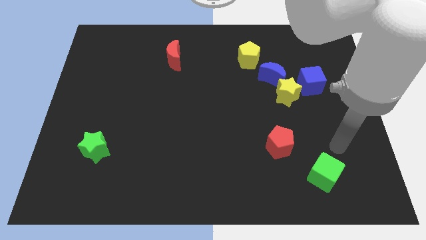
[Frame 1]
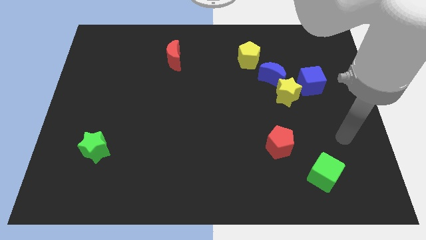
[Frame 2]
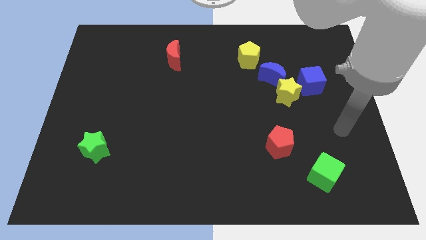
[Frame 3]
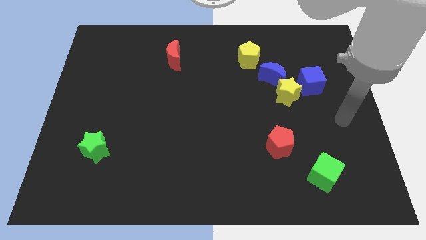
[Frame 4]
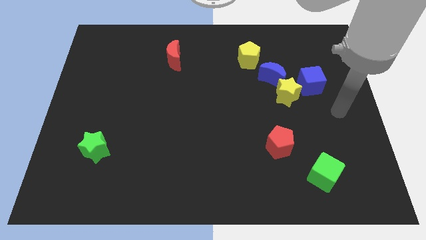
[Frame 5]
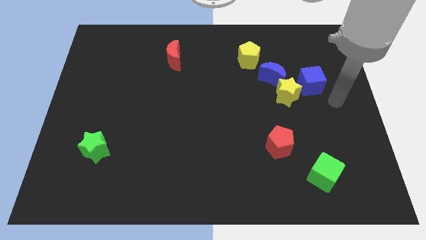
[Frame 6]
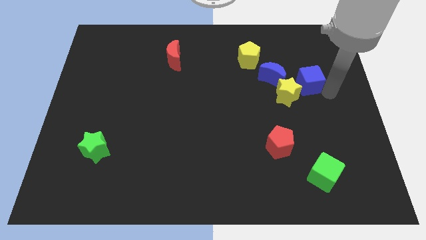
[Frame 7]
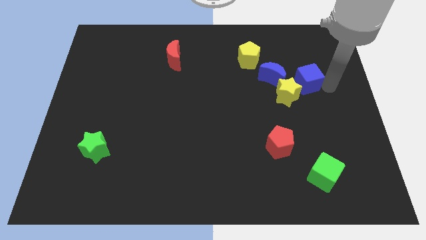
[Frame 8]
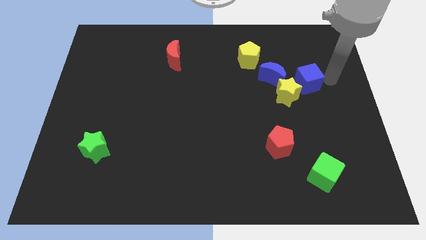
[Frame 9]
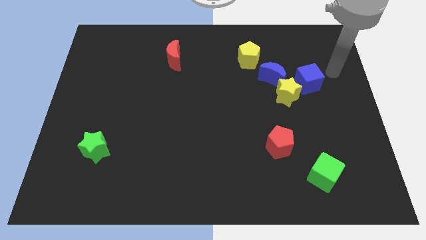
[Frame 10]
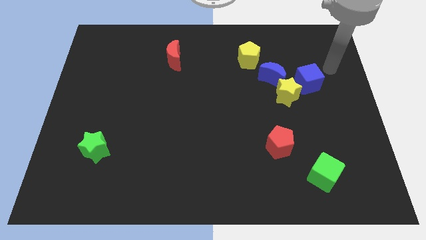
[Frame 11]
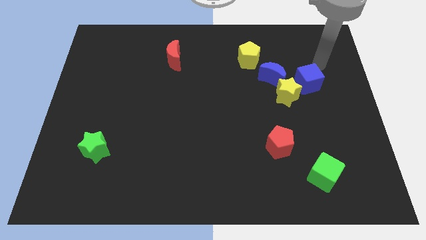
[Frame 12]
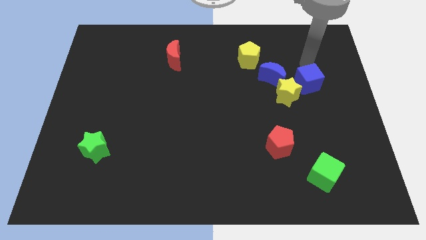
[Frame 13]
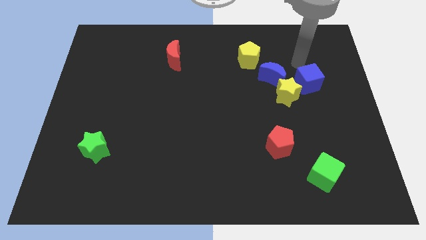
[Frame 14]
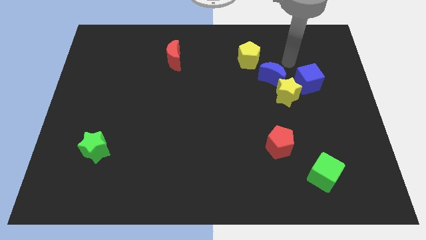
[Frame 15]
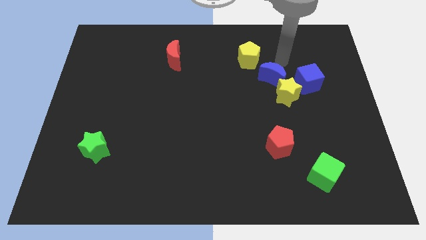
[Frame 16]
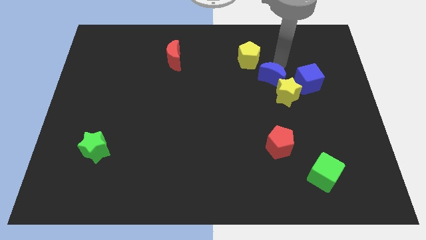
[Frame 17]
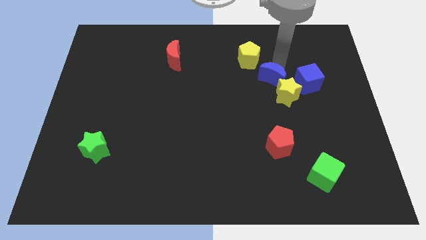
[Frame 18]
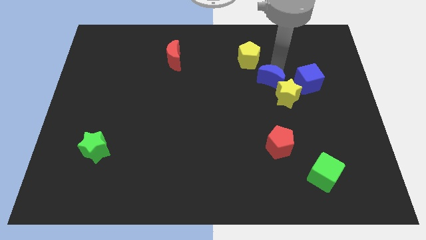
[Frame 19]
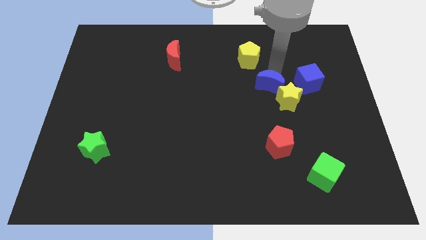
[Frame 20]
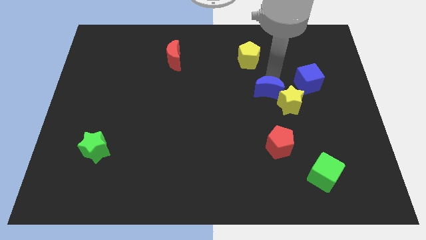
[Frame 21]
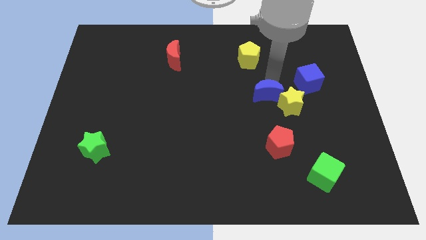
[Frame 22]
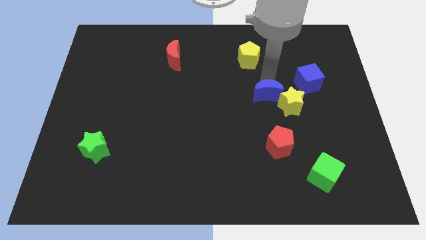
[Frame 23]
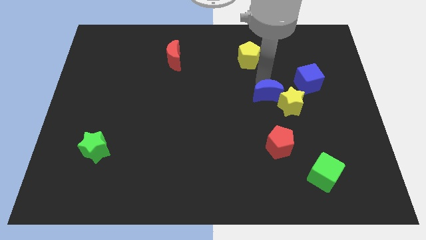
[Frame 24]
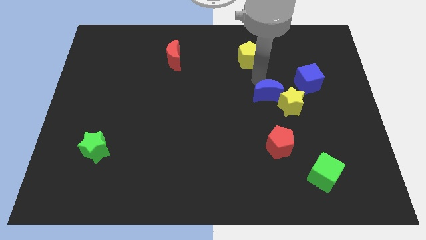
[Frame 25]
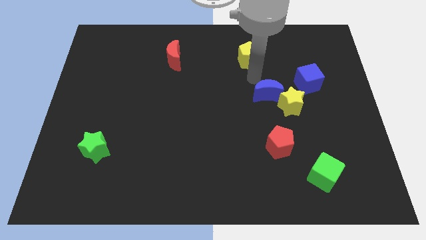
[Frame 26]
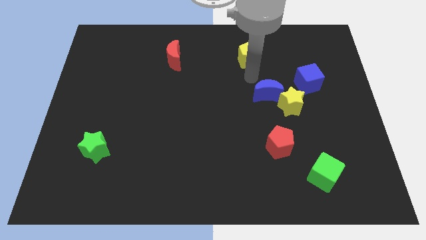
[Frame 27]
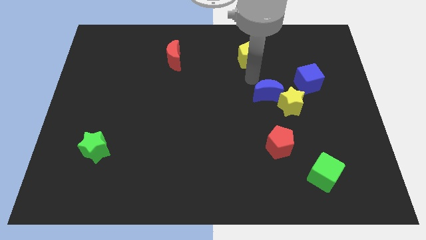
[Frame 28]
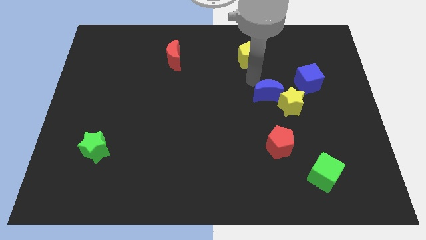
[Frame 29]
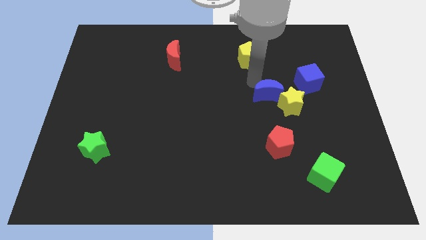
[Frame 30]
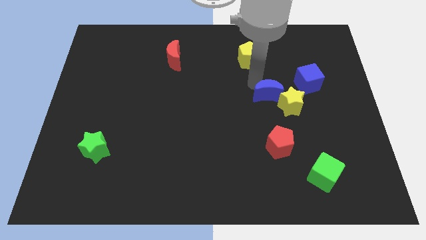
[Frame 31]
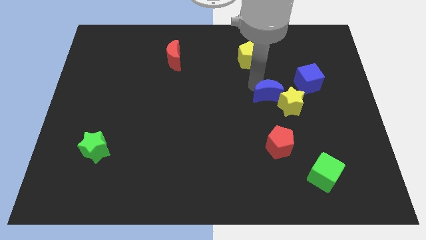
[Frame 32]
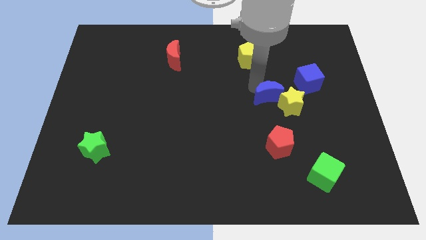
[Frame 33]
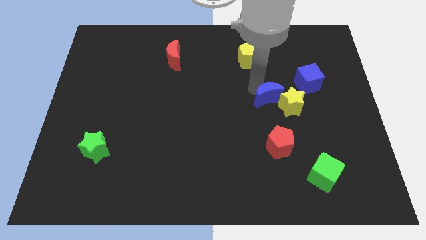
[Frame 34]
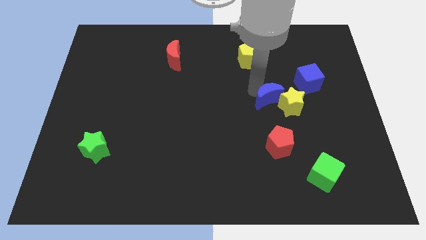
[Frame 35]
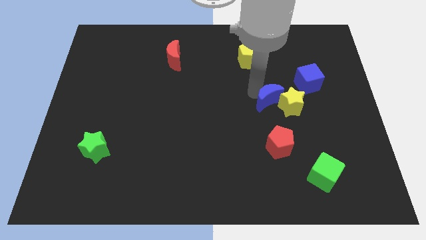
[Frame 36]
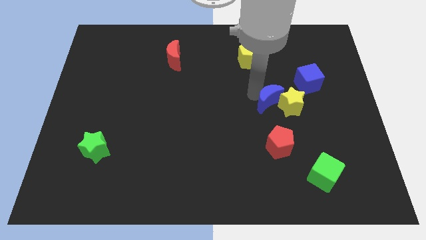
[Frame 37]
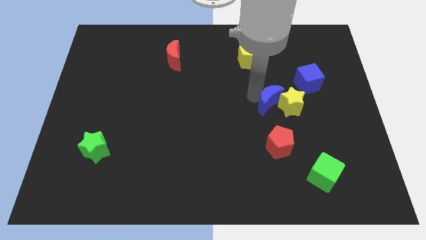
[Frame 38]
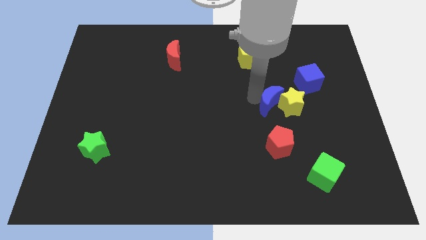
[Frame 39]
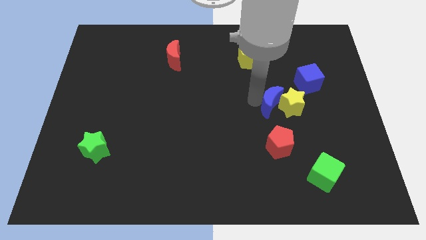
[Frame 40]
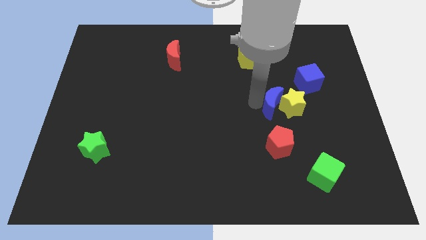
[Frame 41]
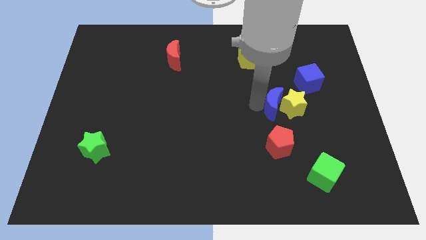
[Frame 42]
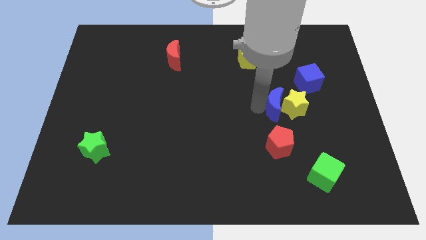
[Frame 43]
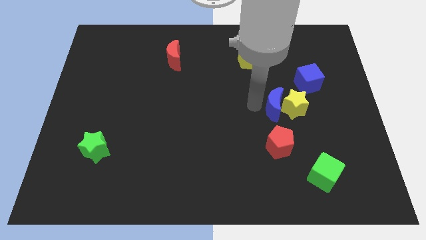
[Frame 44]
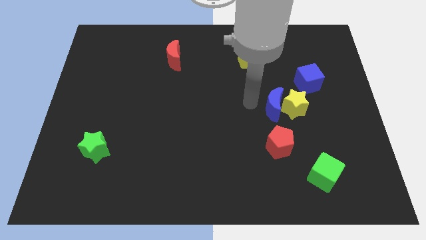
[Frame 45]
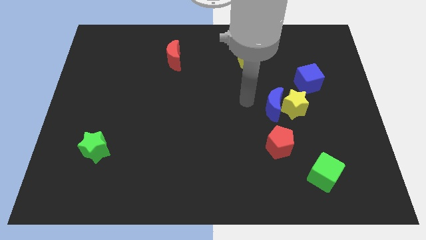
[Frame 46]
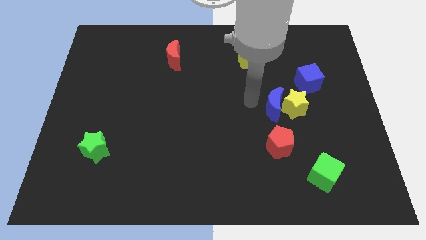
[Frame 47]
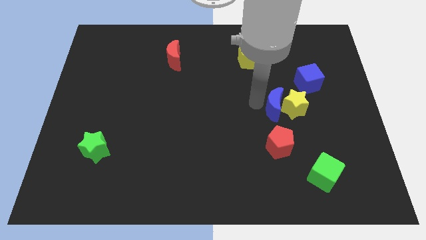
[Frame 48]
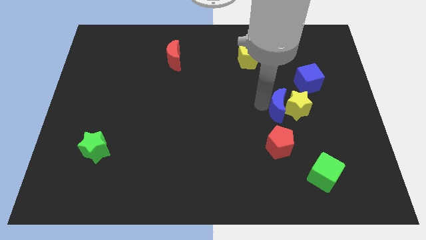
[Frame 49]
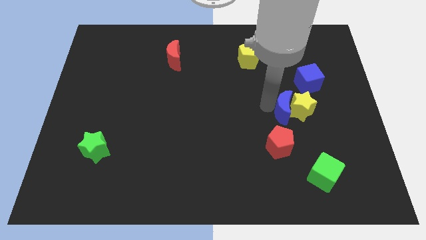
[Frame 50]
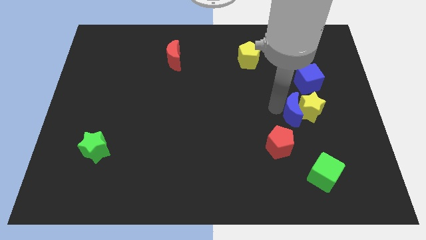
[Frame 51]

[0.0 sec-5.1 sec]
move the blue moon down and to the right a little bit

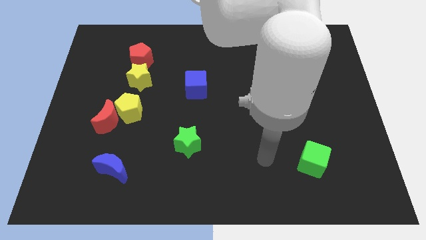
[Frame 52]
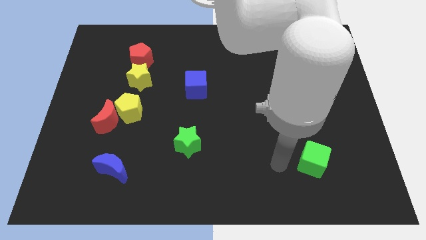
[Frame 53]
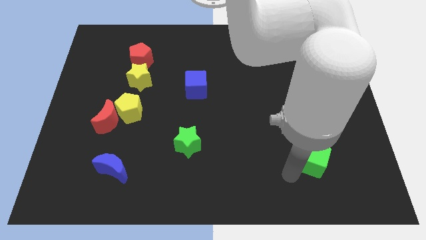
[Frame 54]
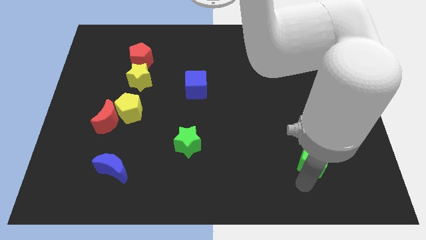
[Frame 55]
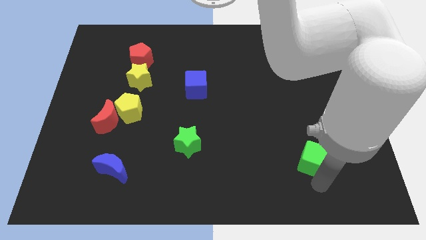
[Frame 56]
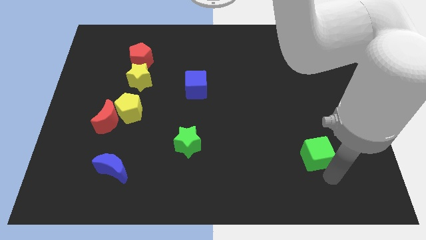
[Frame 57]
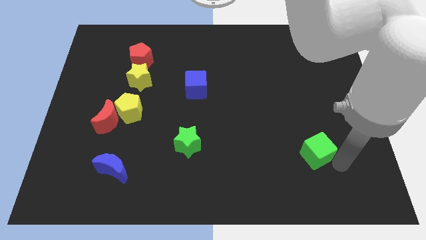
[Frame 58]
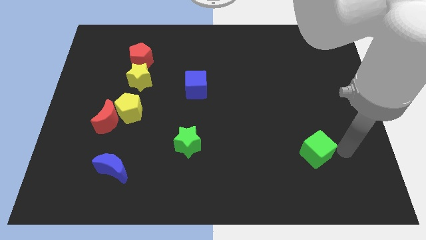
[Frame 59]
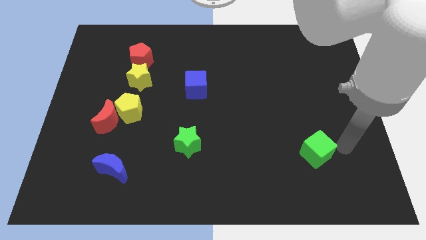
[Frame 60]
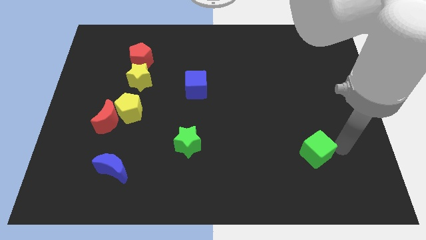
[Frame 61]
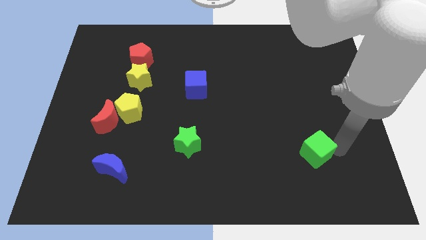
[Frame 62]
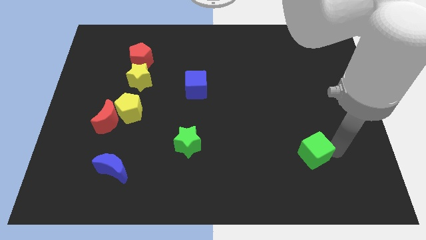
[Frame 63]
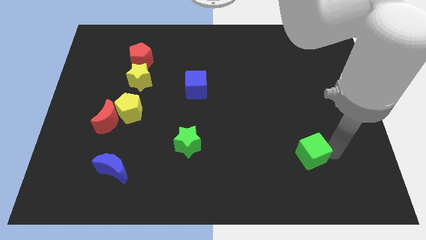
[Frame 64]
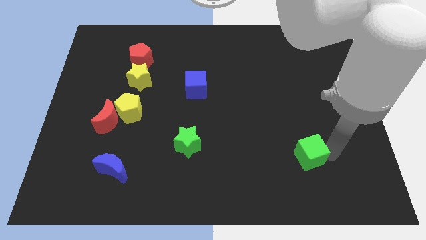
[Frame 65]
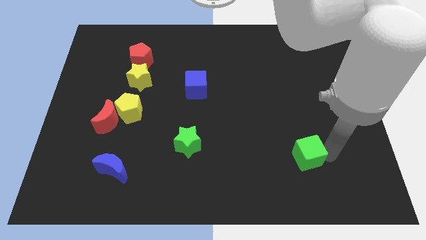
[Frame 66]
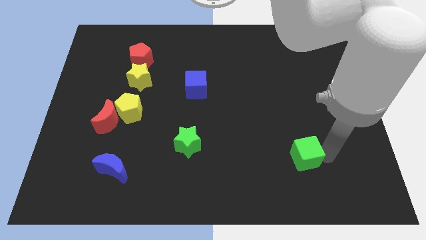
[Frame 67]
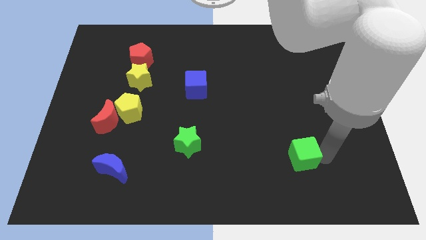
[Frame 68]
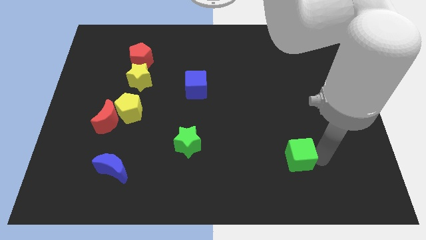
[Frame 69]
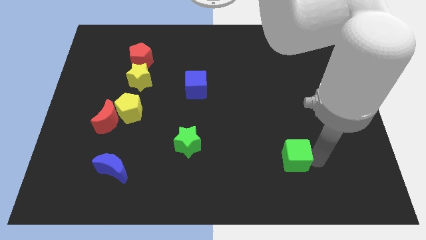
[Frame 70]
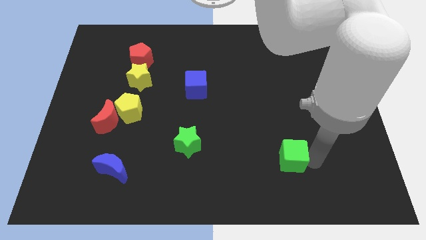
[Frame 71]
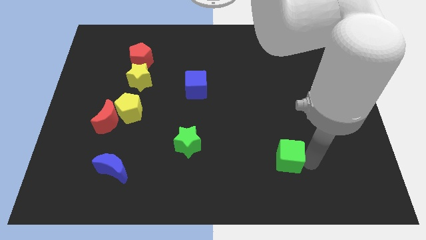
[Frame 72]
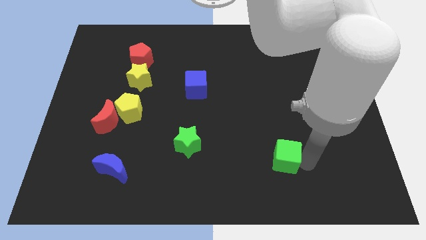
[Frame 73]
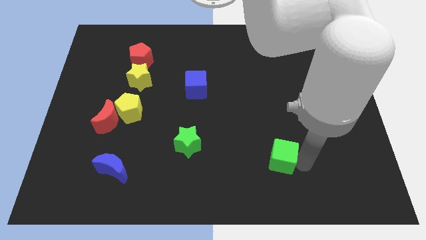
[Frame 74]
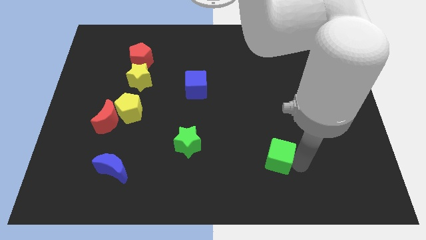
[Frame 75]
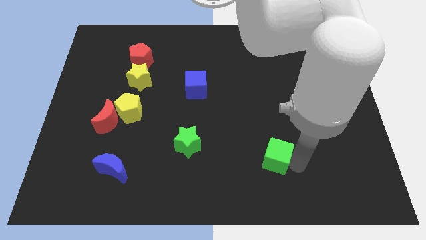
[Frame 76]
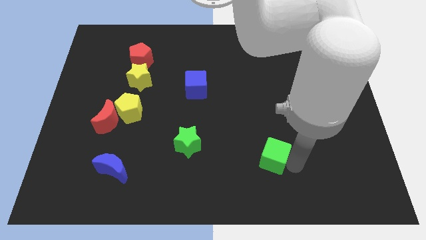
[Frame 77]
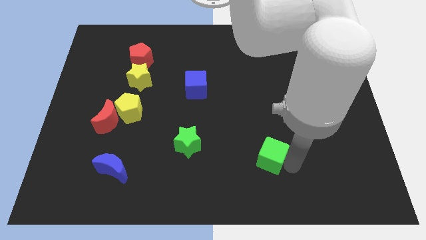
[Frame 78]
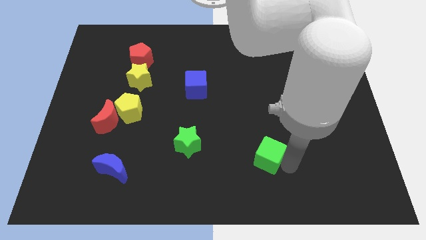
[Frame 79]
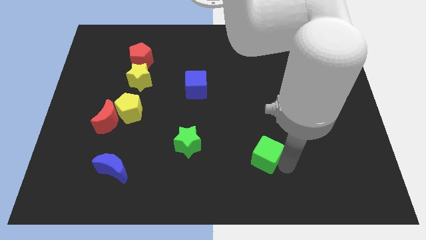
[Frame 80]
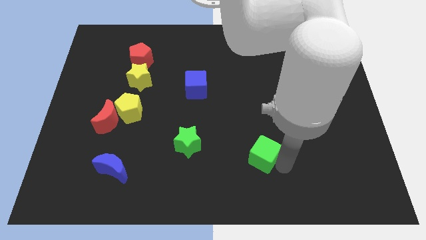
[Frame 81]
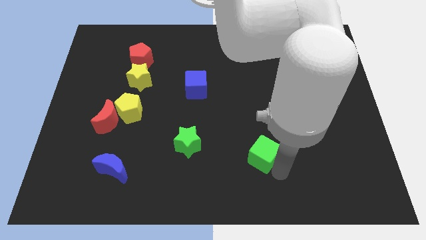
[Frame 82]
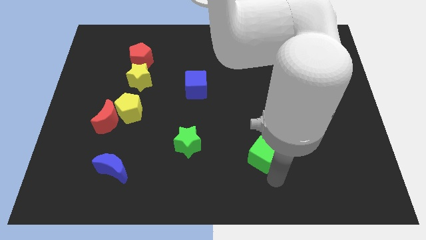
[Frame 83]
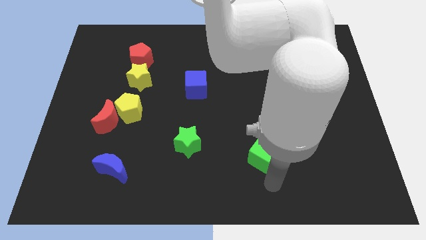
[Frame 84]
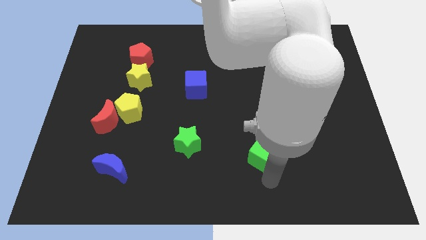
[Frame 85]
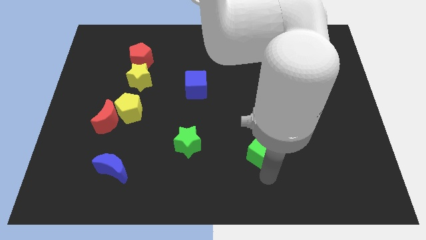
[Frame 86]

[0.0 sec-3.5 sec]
slightly slide the green cube up and then to the left
